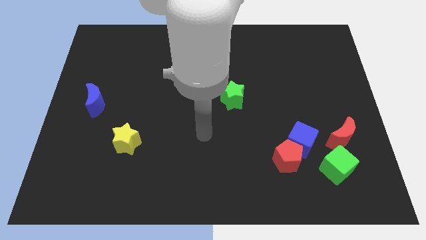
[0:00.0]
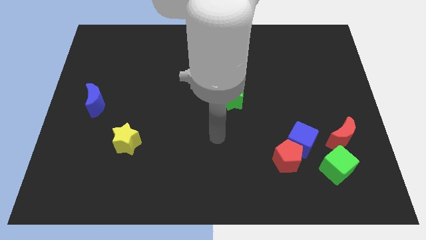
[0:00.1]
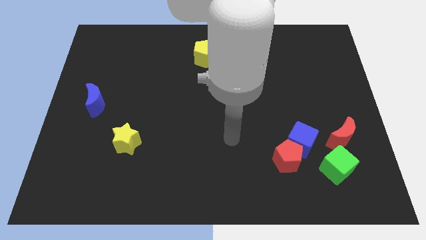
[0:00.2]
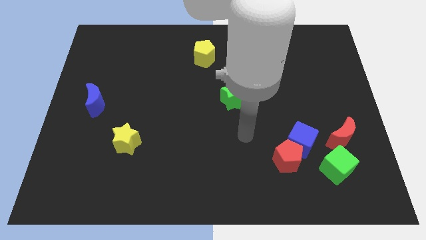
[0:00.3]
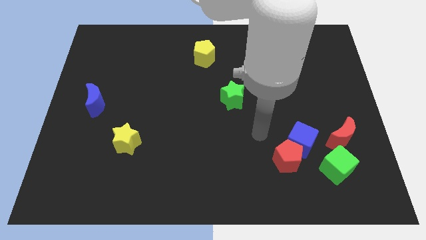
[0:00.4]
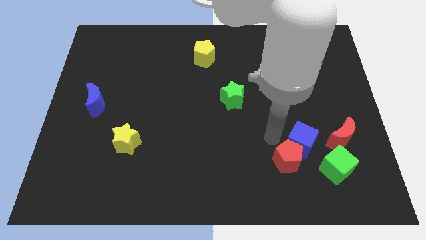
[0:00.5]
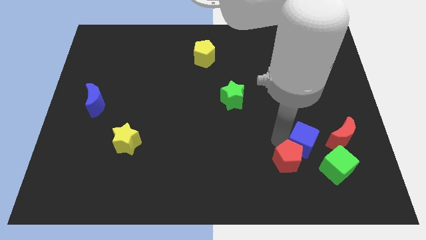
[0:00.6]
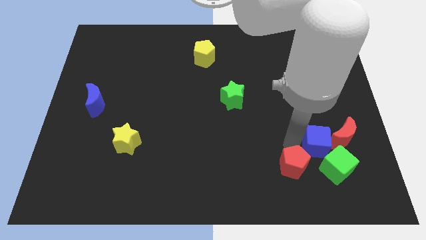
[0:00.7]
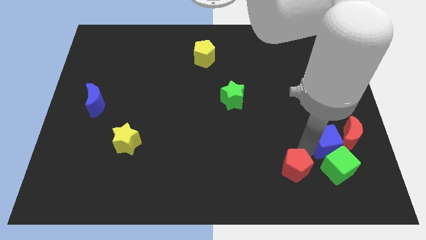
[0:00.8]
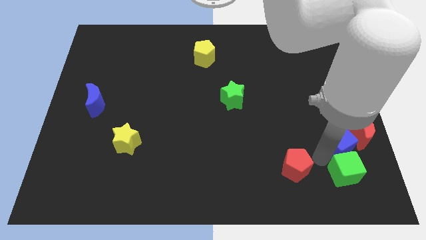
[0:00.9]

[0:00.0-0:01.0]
separate the red pentagon from the blue cube and green cube

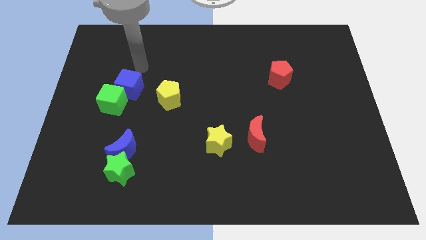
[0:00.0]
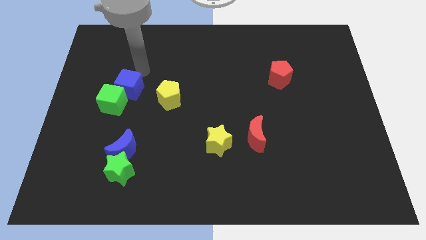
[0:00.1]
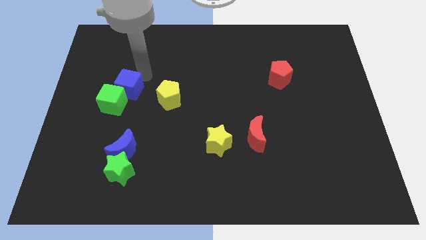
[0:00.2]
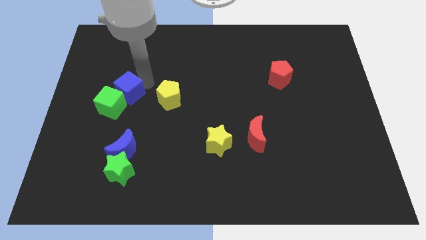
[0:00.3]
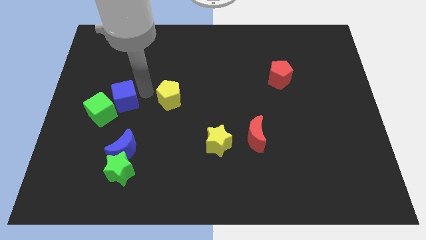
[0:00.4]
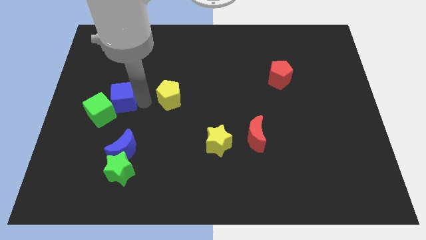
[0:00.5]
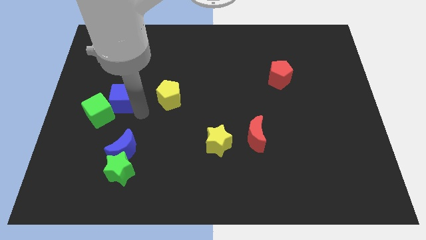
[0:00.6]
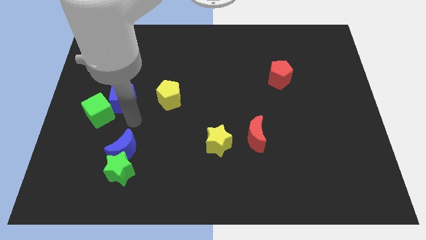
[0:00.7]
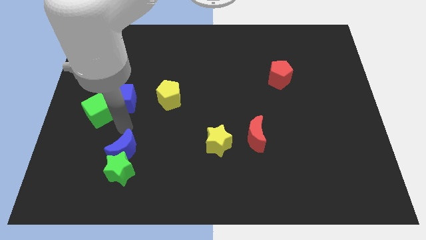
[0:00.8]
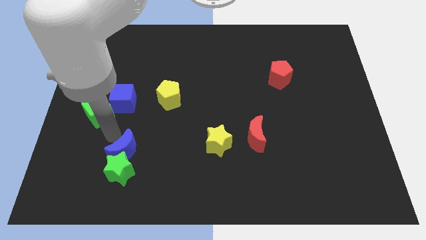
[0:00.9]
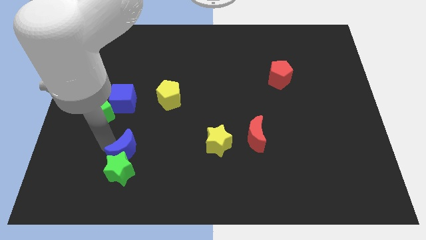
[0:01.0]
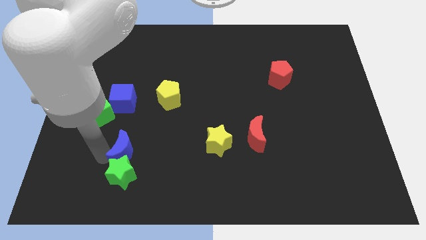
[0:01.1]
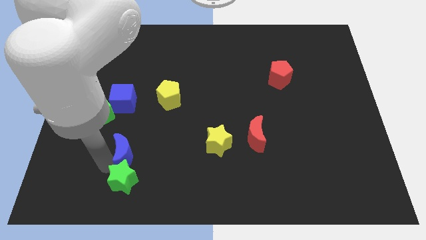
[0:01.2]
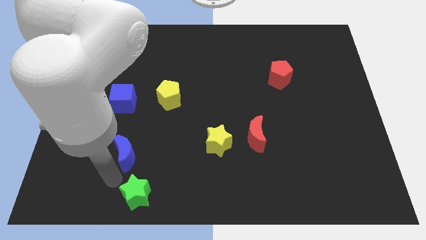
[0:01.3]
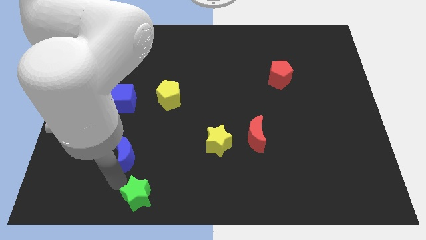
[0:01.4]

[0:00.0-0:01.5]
move the blue moon away from the green star

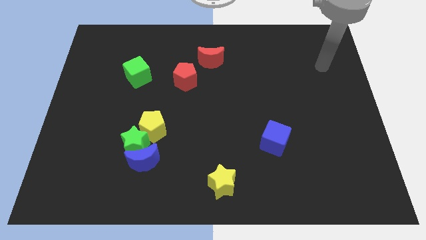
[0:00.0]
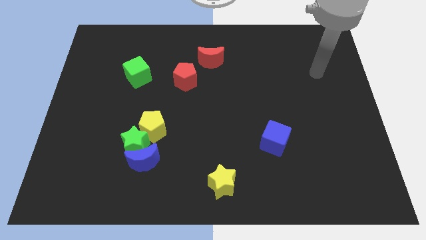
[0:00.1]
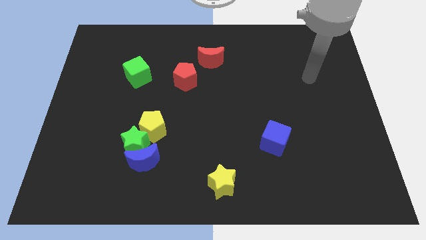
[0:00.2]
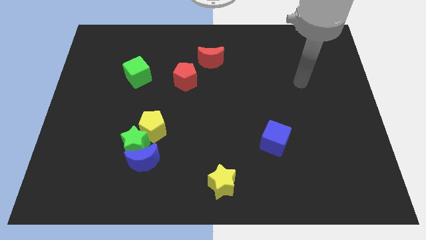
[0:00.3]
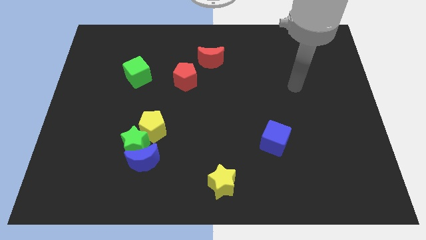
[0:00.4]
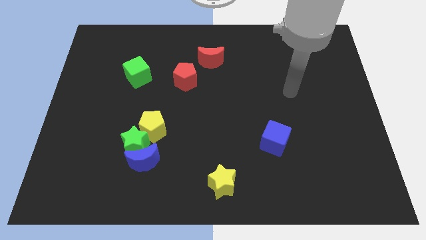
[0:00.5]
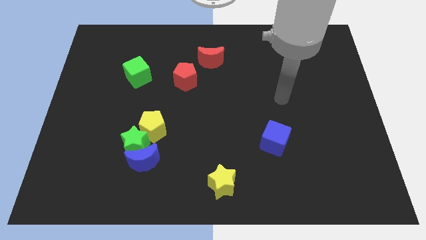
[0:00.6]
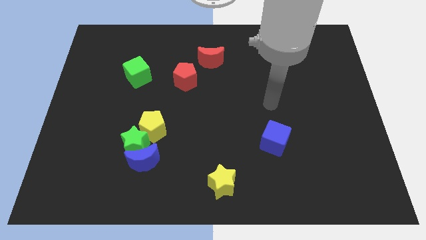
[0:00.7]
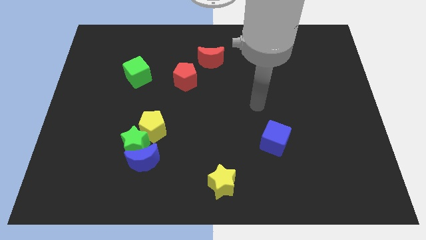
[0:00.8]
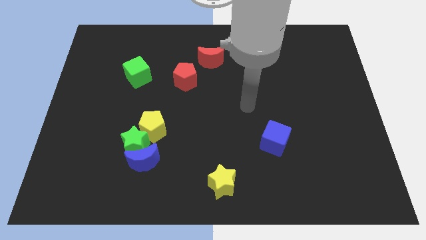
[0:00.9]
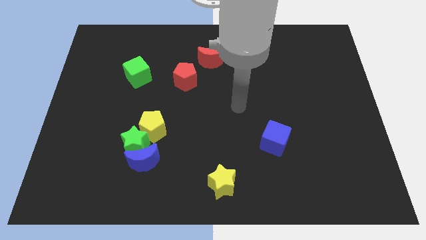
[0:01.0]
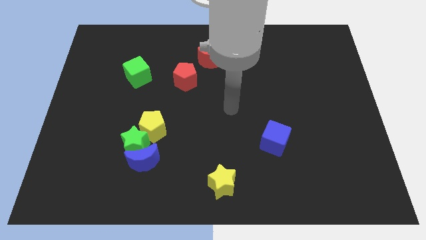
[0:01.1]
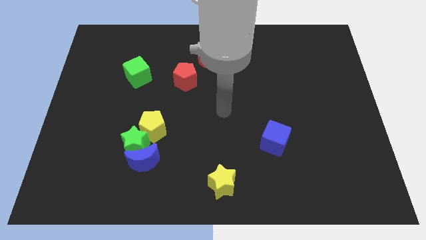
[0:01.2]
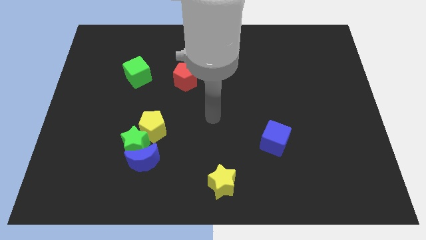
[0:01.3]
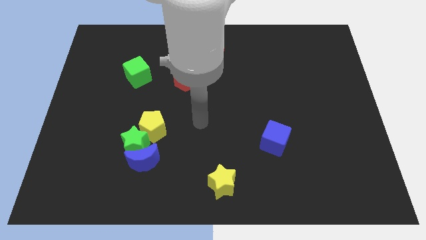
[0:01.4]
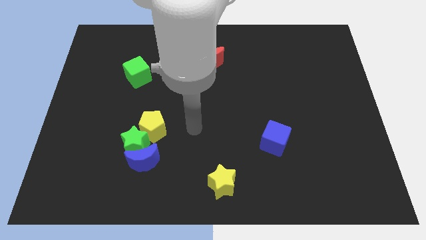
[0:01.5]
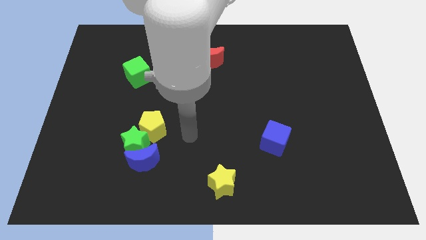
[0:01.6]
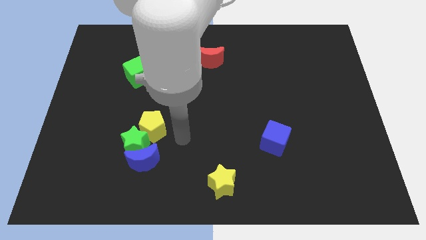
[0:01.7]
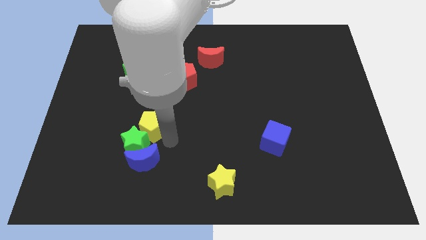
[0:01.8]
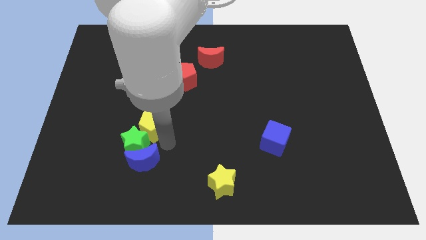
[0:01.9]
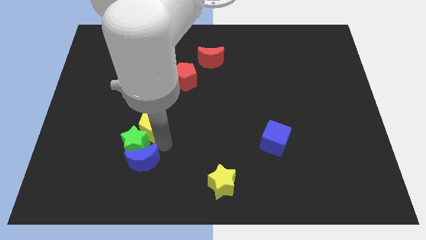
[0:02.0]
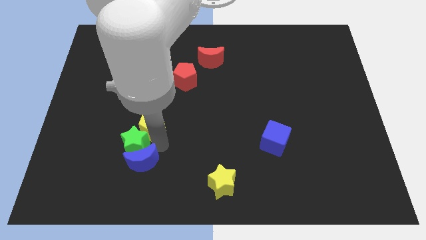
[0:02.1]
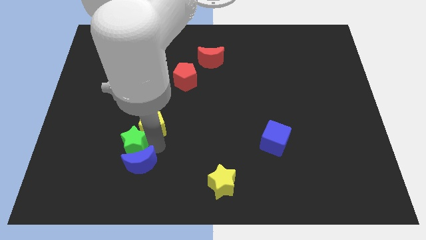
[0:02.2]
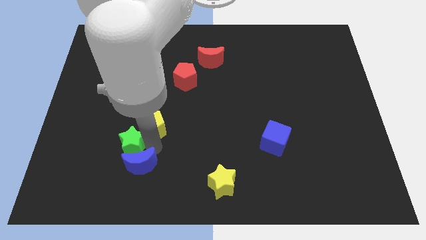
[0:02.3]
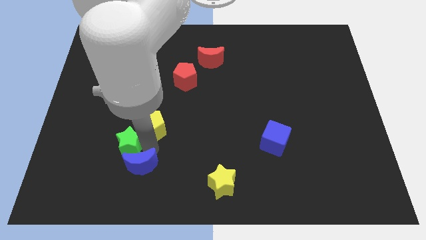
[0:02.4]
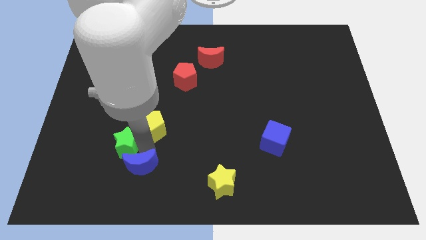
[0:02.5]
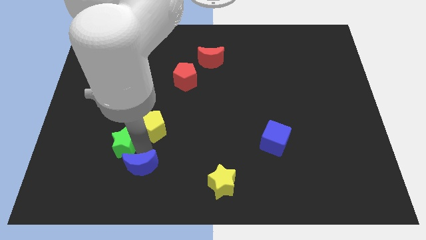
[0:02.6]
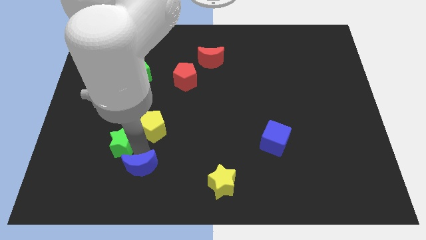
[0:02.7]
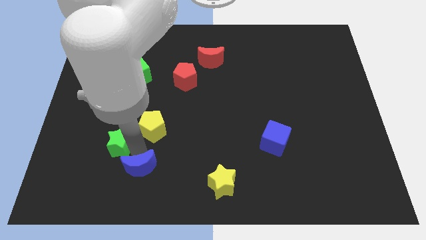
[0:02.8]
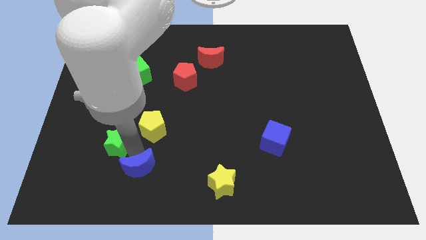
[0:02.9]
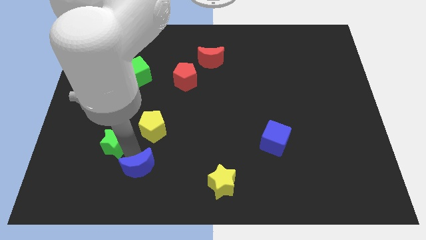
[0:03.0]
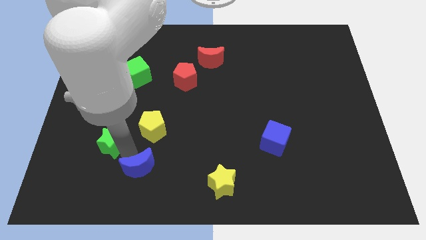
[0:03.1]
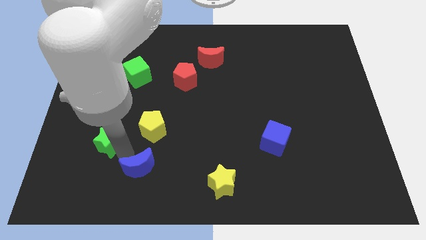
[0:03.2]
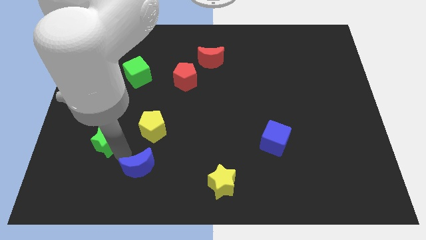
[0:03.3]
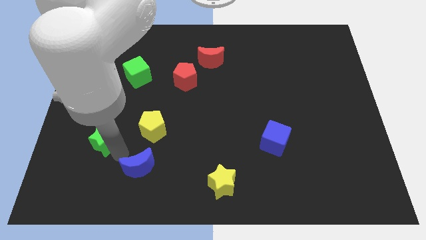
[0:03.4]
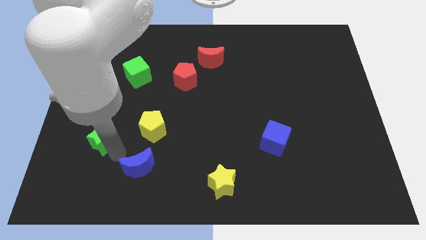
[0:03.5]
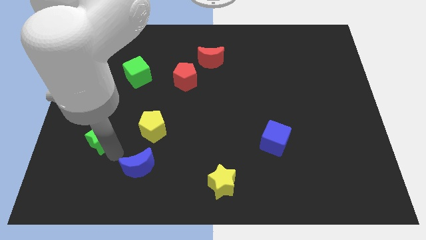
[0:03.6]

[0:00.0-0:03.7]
move the green star away from the blue moon and yellow pentagon

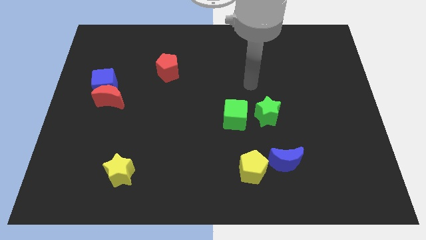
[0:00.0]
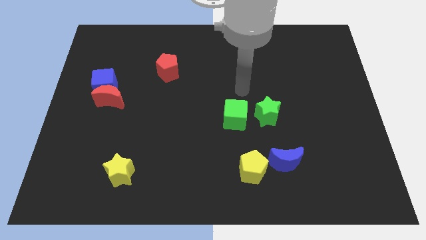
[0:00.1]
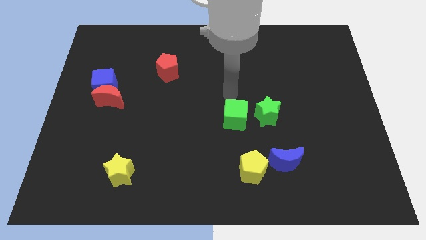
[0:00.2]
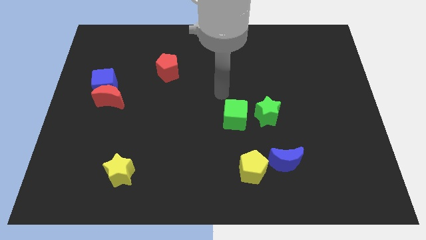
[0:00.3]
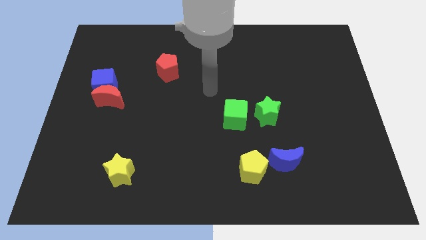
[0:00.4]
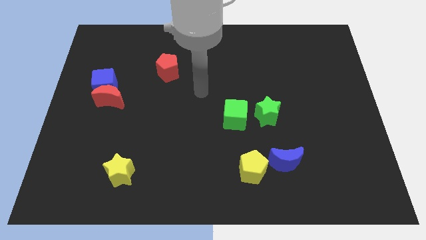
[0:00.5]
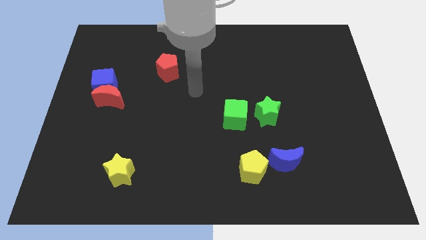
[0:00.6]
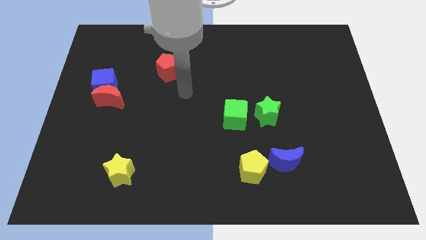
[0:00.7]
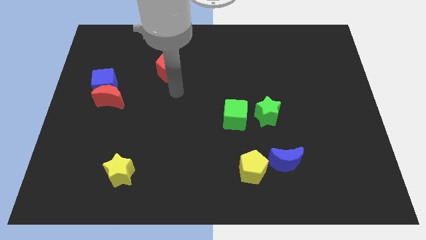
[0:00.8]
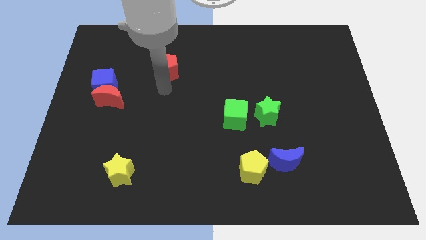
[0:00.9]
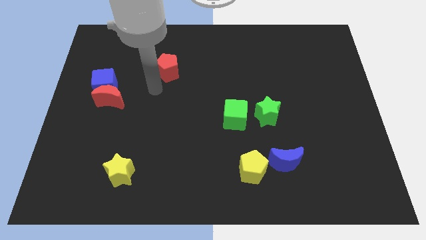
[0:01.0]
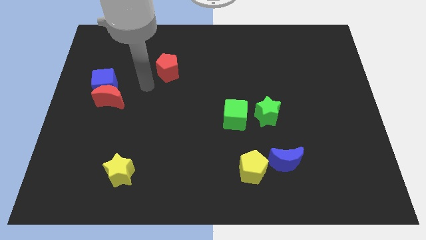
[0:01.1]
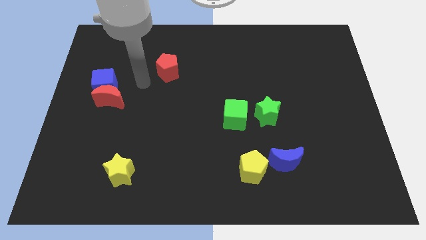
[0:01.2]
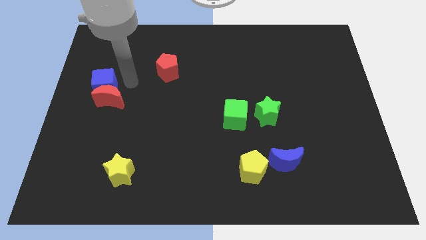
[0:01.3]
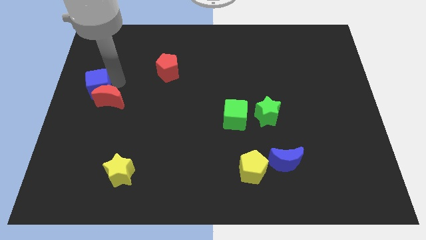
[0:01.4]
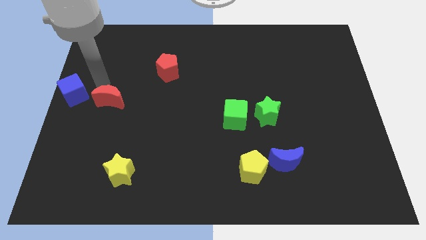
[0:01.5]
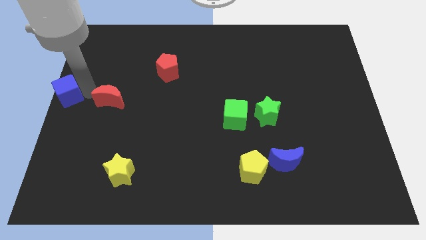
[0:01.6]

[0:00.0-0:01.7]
move the red moon away from the blue cube

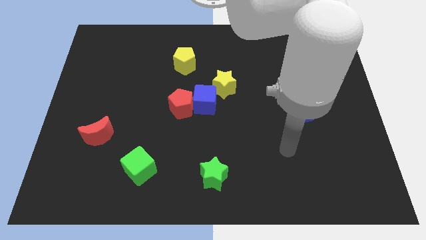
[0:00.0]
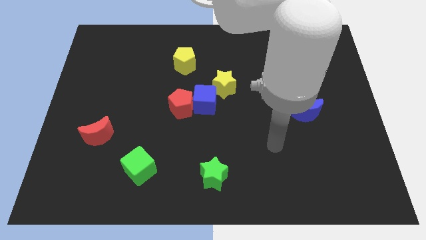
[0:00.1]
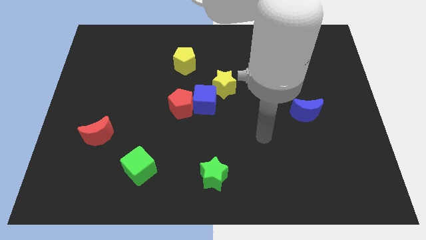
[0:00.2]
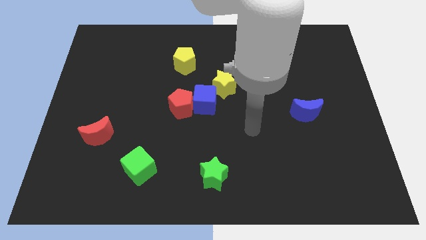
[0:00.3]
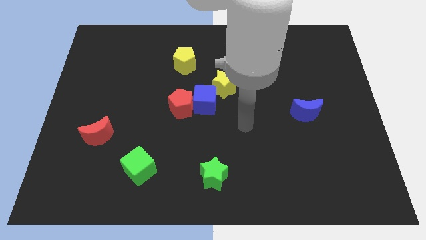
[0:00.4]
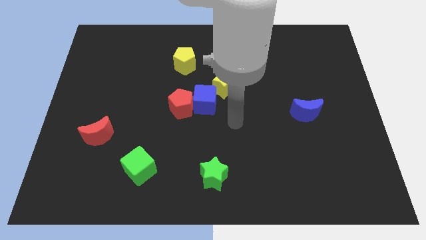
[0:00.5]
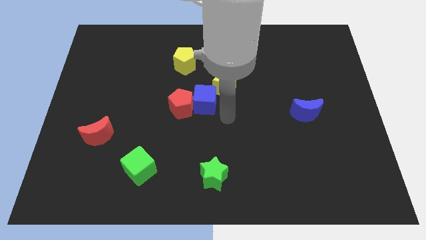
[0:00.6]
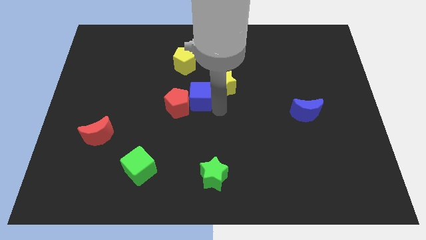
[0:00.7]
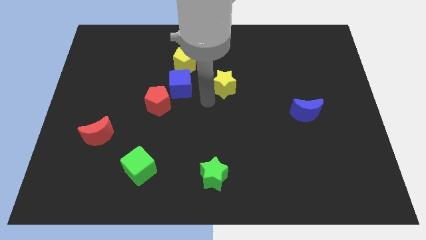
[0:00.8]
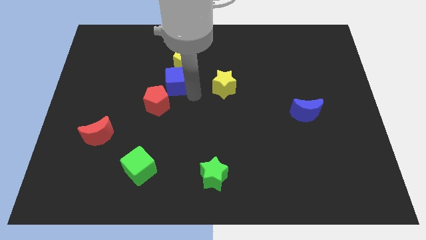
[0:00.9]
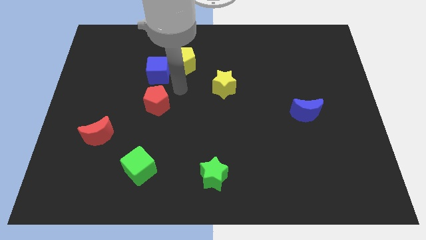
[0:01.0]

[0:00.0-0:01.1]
separate the red pentagon from the blue cube
